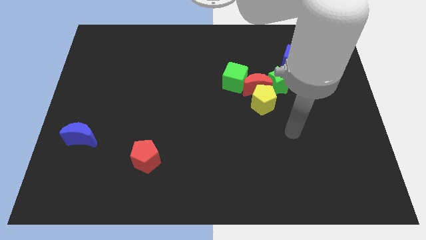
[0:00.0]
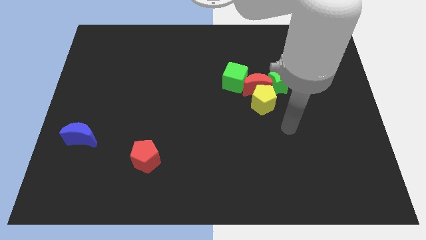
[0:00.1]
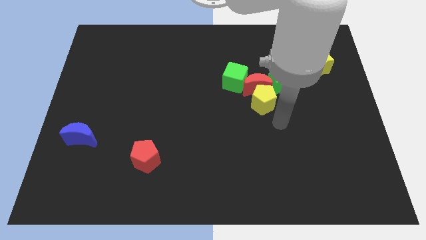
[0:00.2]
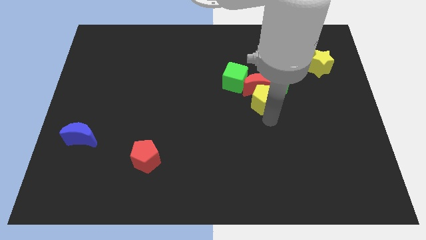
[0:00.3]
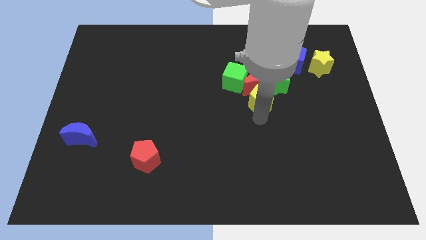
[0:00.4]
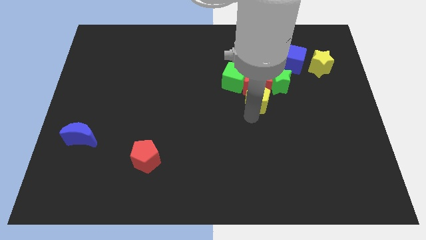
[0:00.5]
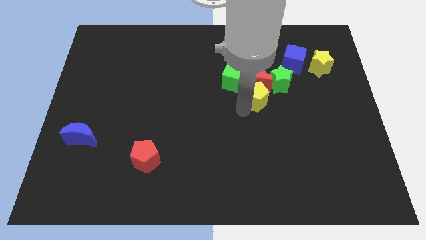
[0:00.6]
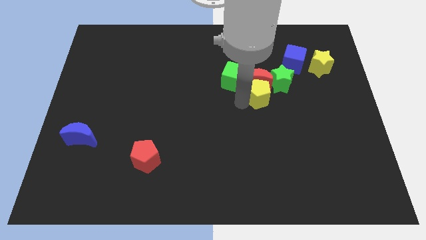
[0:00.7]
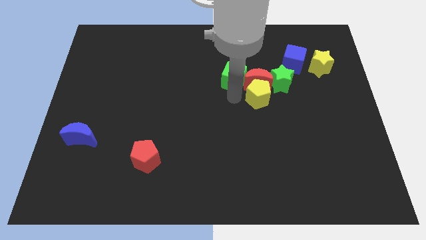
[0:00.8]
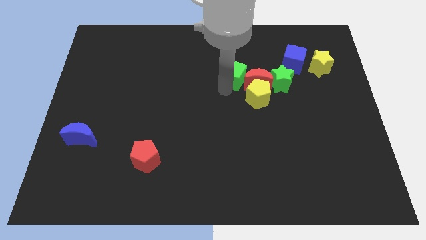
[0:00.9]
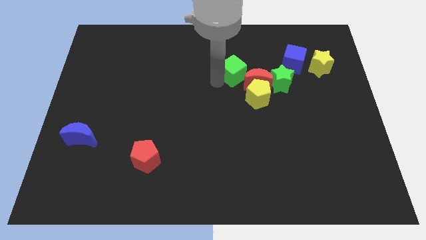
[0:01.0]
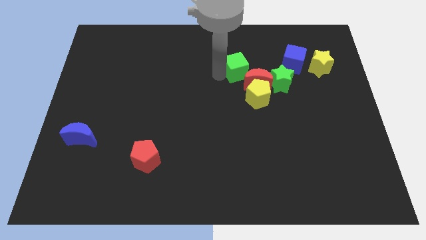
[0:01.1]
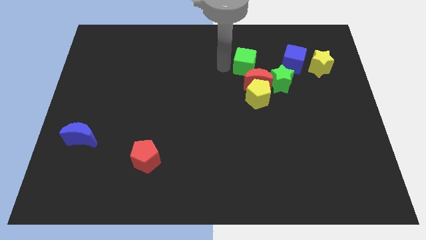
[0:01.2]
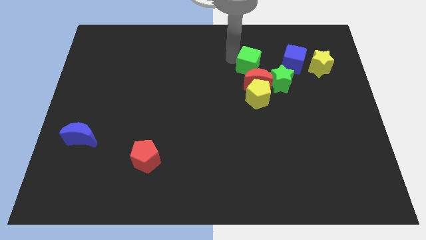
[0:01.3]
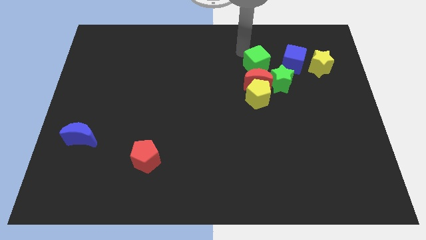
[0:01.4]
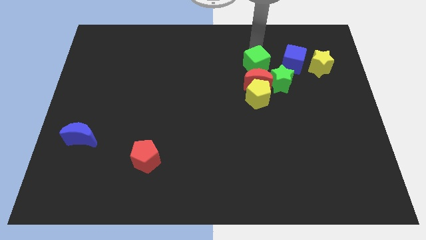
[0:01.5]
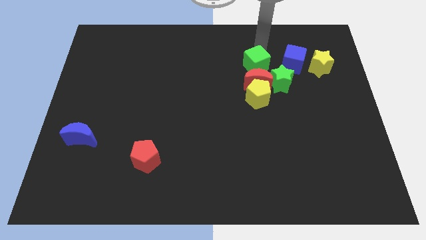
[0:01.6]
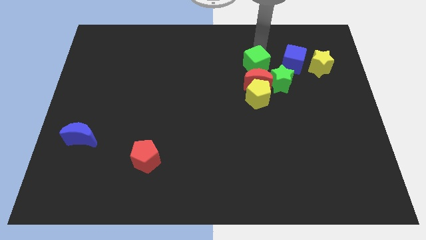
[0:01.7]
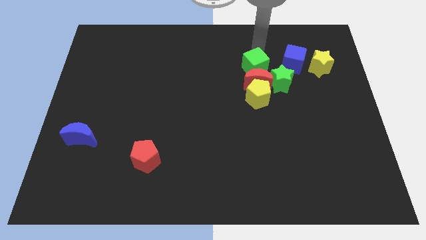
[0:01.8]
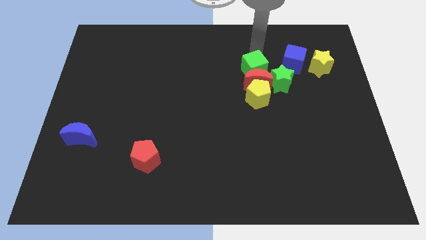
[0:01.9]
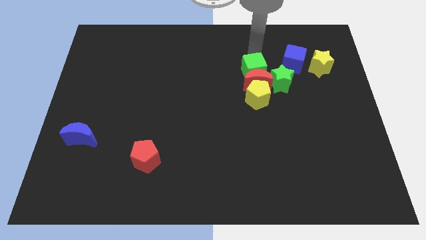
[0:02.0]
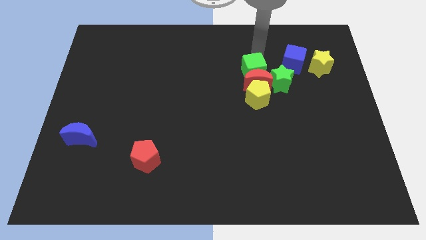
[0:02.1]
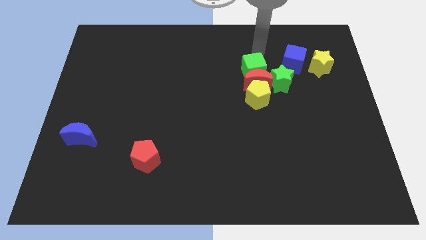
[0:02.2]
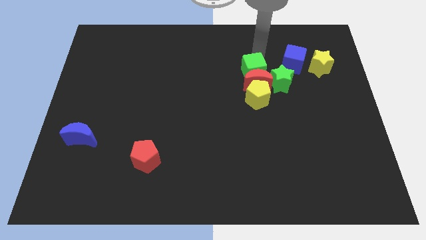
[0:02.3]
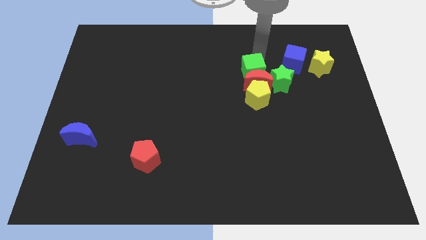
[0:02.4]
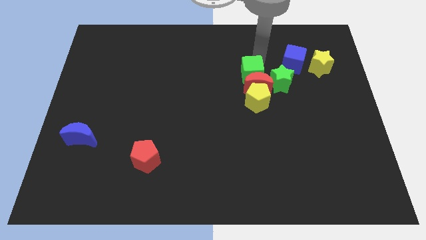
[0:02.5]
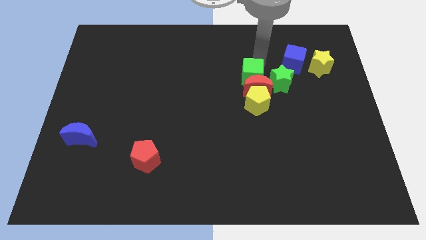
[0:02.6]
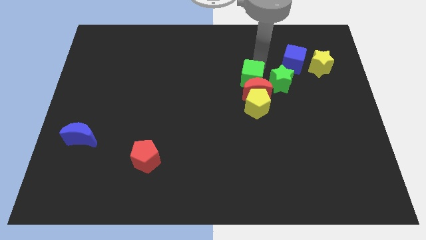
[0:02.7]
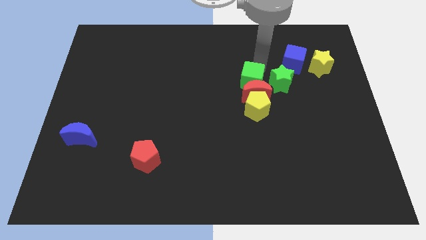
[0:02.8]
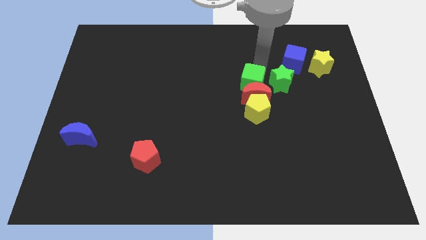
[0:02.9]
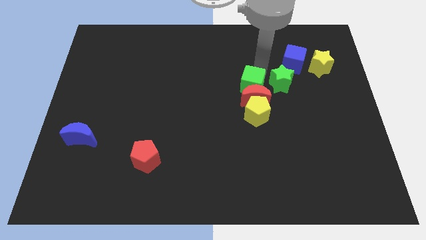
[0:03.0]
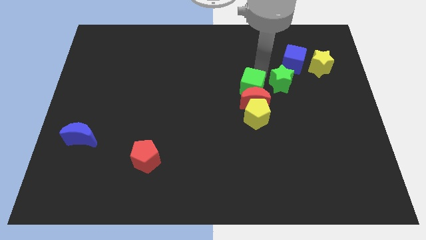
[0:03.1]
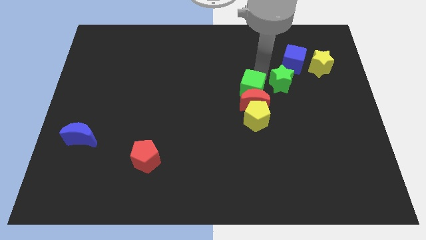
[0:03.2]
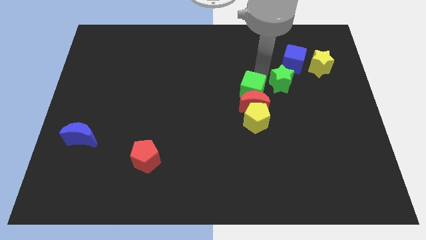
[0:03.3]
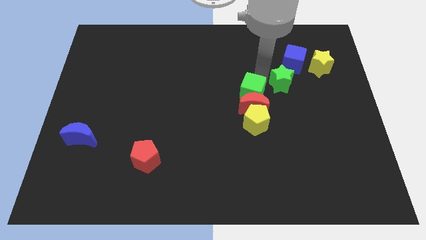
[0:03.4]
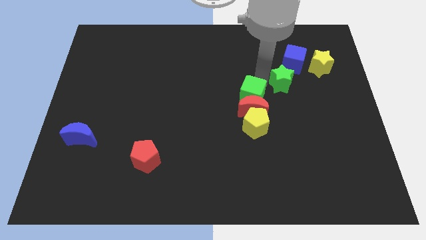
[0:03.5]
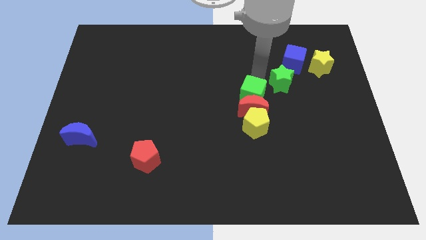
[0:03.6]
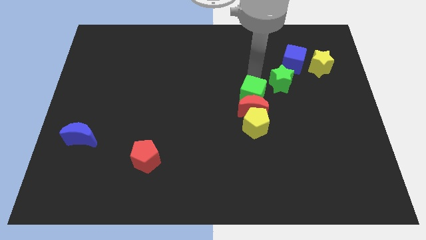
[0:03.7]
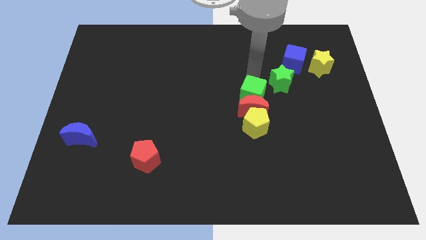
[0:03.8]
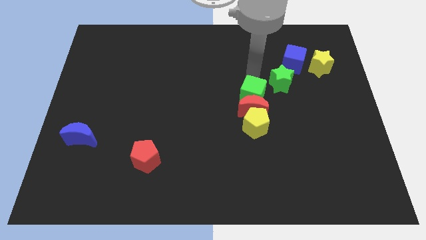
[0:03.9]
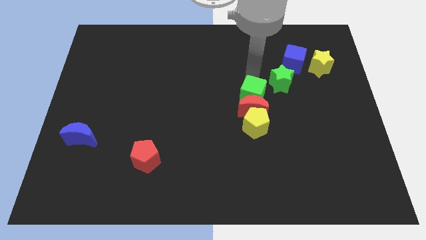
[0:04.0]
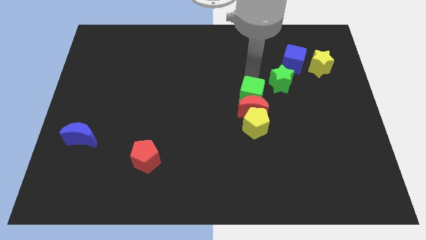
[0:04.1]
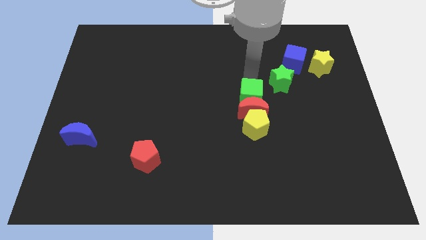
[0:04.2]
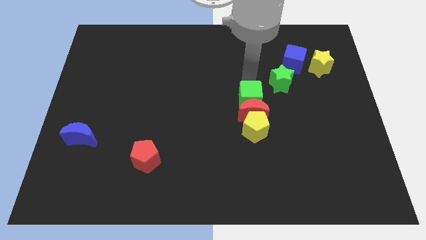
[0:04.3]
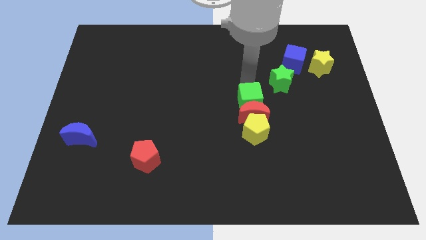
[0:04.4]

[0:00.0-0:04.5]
slide the green cube diagonally down and right a bit

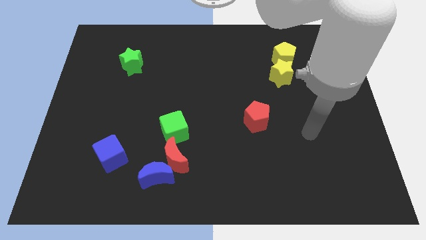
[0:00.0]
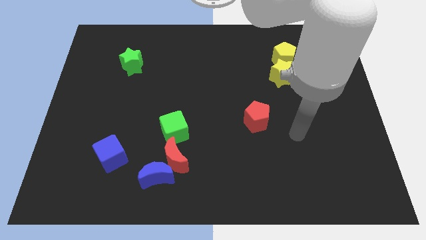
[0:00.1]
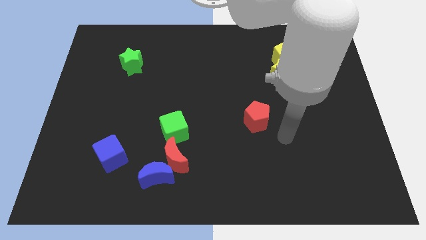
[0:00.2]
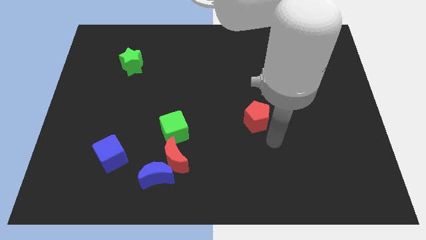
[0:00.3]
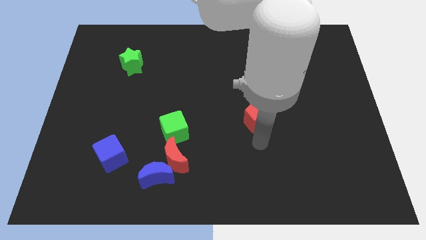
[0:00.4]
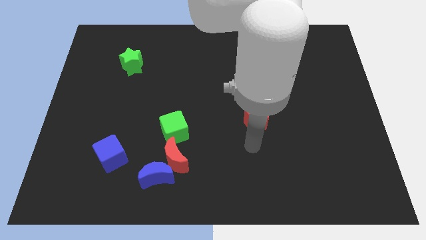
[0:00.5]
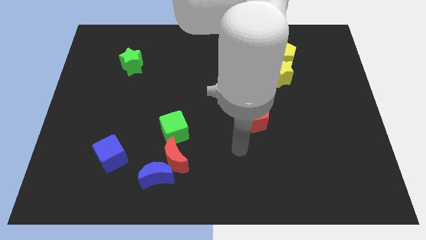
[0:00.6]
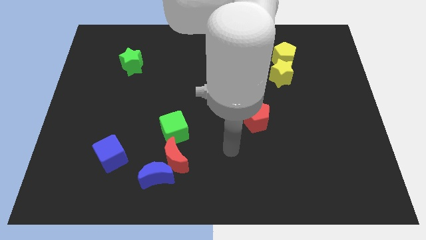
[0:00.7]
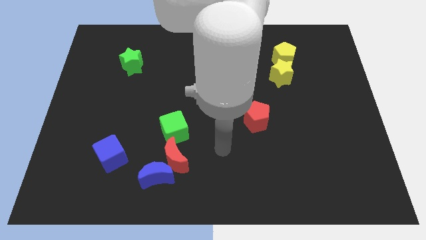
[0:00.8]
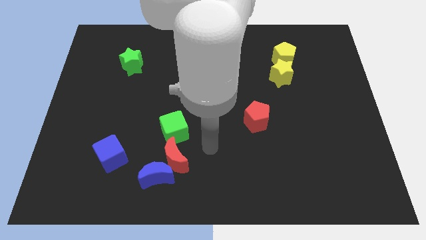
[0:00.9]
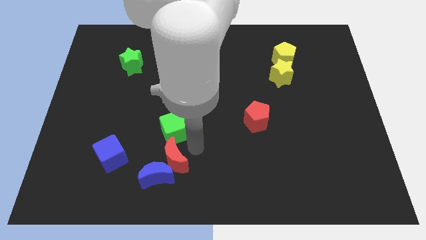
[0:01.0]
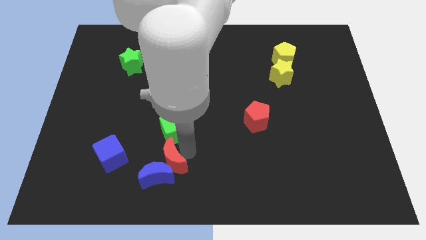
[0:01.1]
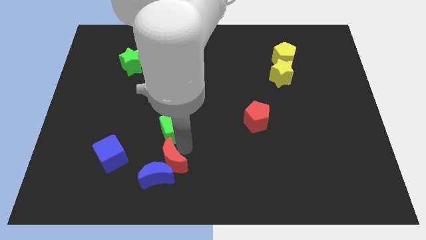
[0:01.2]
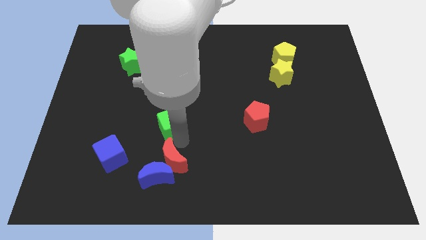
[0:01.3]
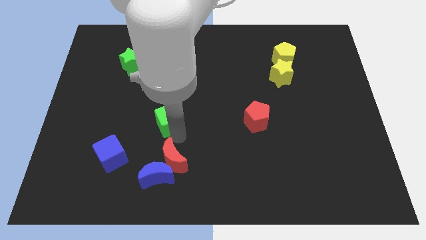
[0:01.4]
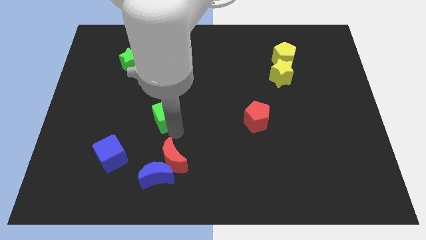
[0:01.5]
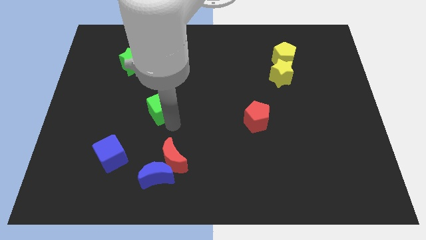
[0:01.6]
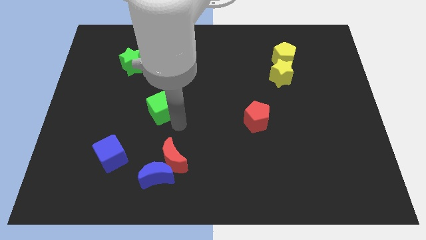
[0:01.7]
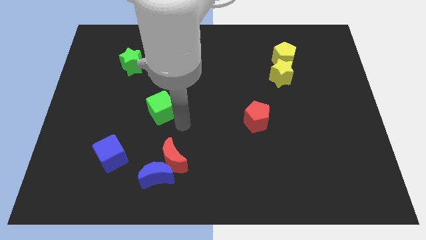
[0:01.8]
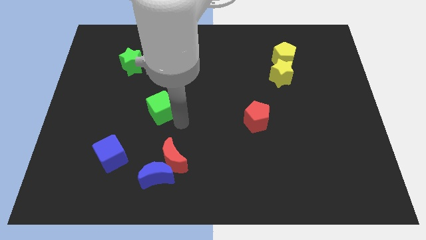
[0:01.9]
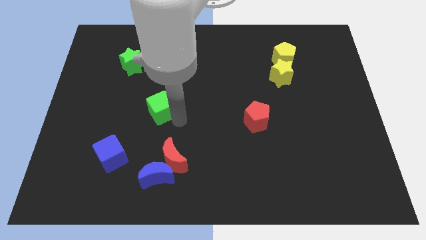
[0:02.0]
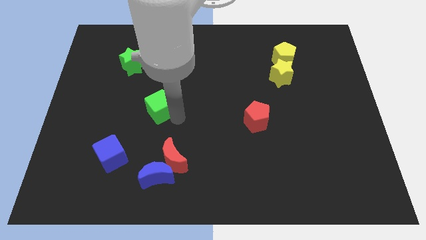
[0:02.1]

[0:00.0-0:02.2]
push the green cube somewhat up and left

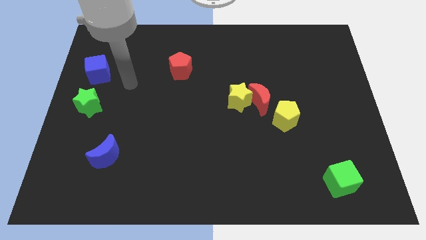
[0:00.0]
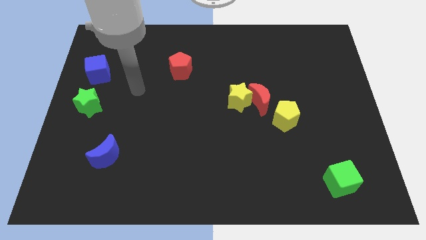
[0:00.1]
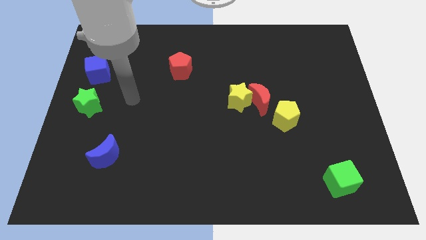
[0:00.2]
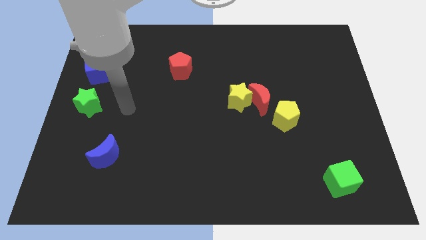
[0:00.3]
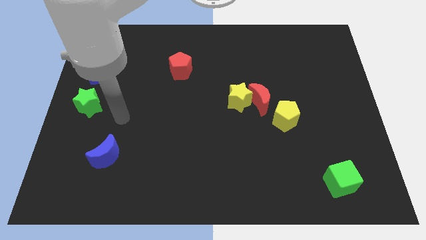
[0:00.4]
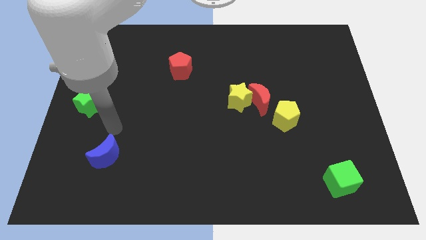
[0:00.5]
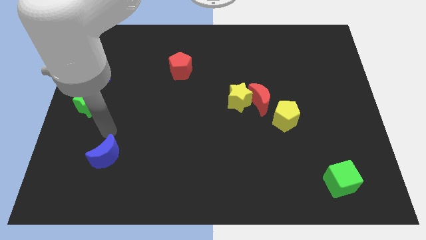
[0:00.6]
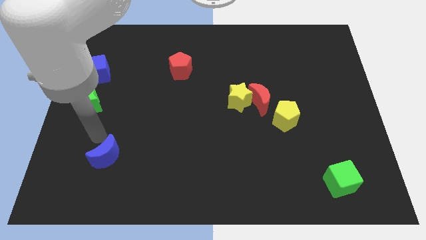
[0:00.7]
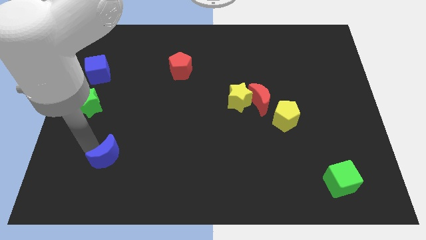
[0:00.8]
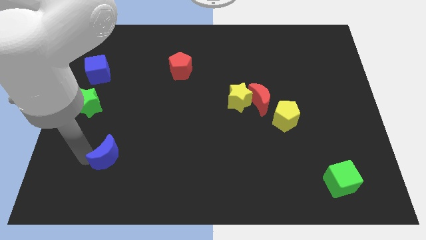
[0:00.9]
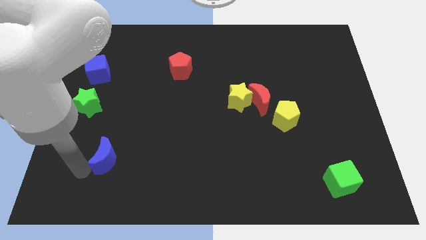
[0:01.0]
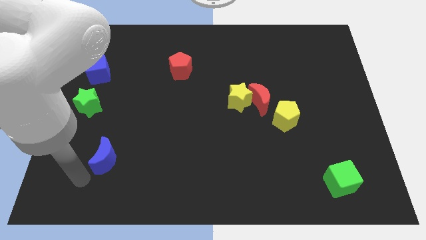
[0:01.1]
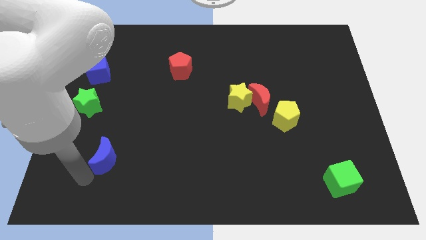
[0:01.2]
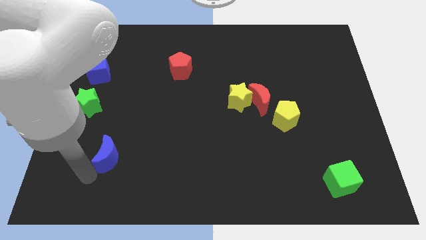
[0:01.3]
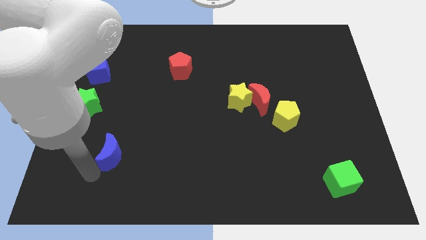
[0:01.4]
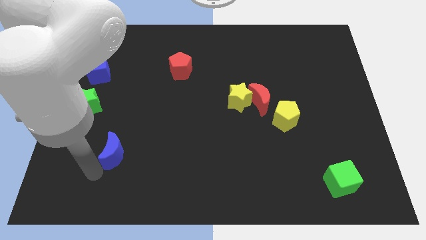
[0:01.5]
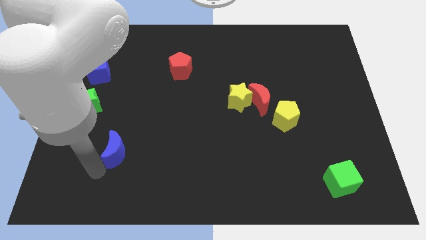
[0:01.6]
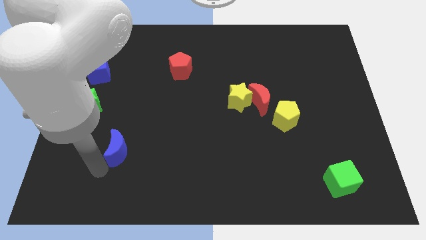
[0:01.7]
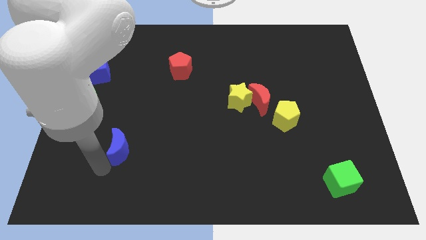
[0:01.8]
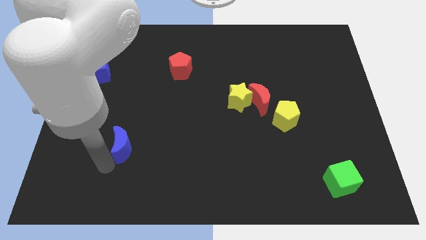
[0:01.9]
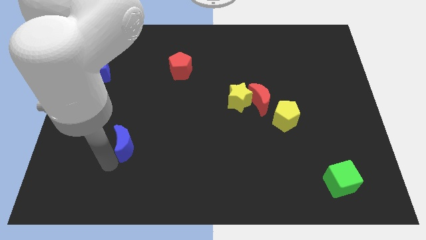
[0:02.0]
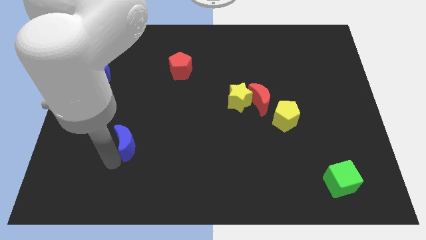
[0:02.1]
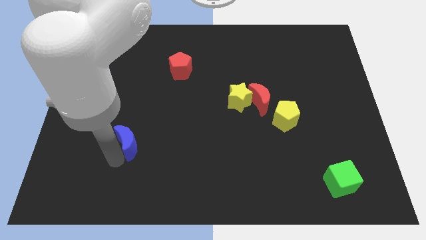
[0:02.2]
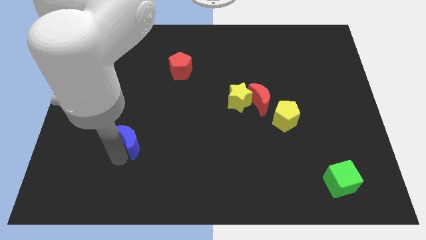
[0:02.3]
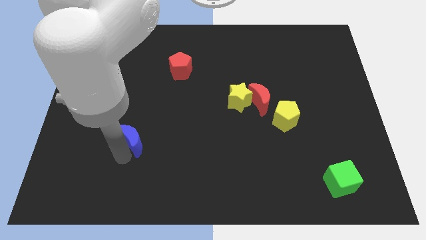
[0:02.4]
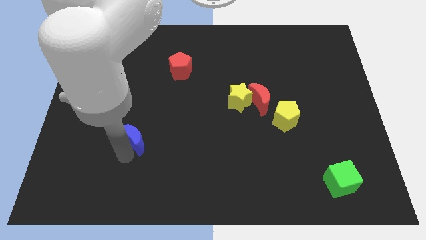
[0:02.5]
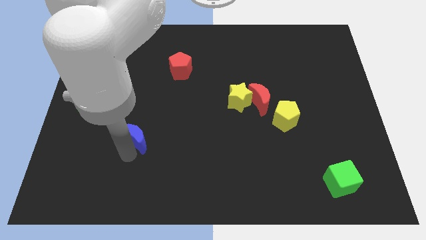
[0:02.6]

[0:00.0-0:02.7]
slightly slide the blue moon upwards and to the right
